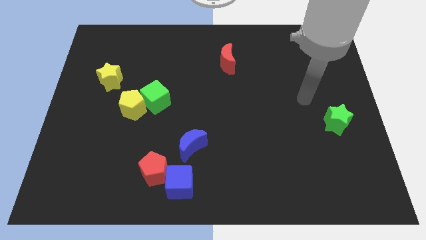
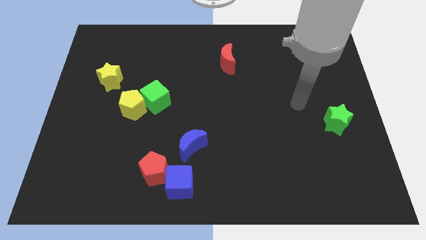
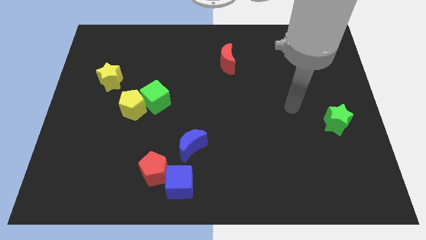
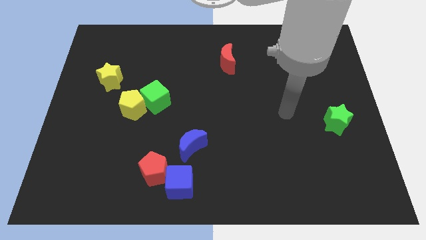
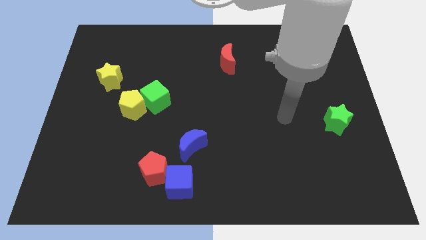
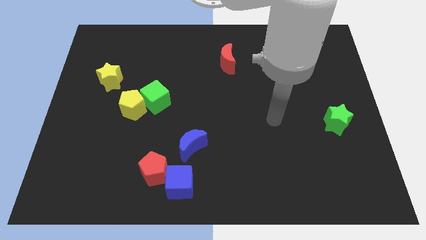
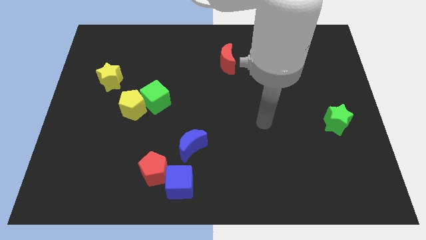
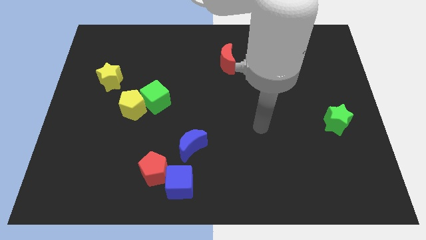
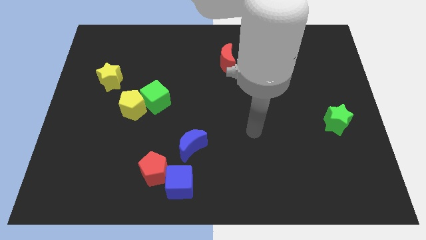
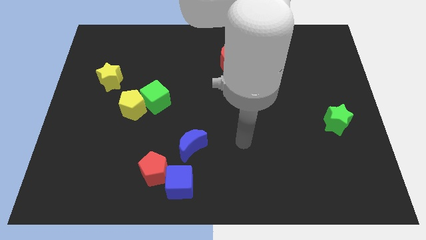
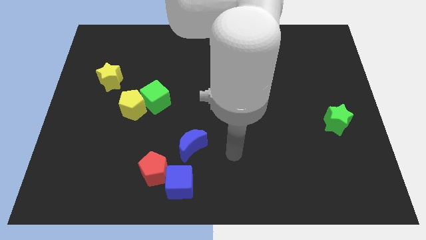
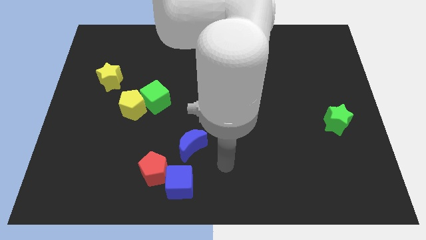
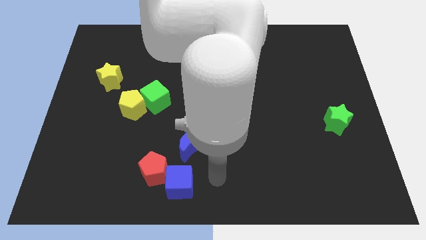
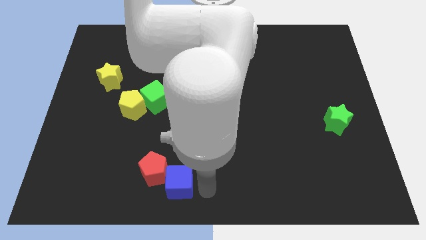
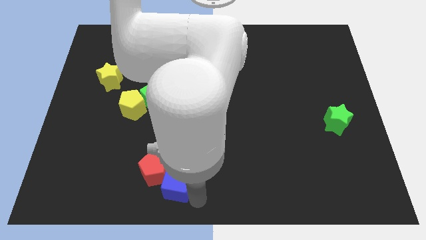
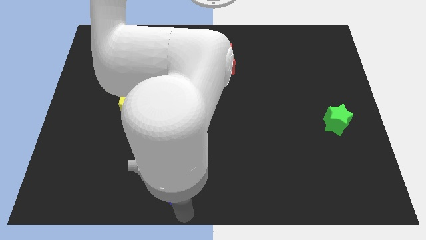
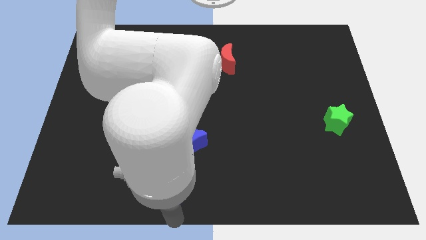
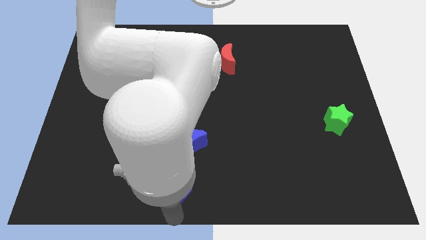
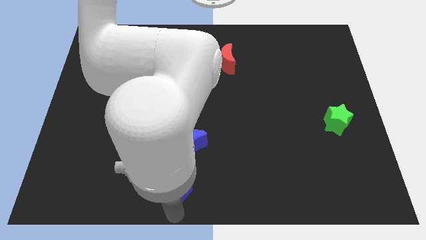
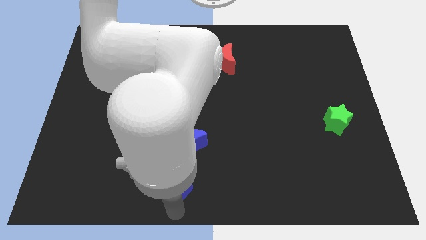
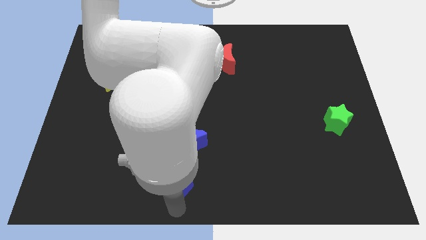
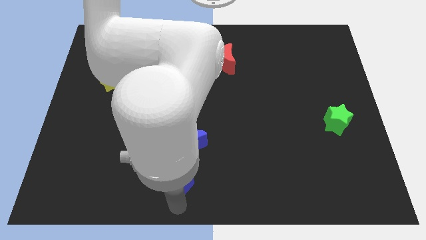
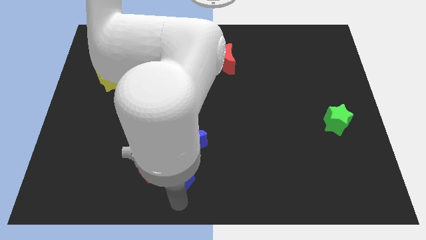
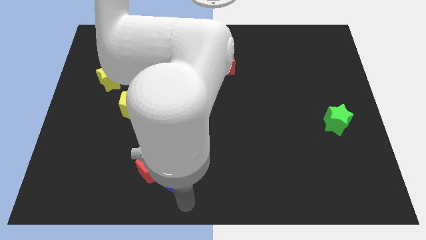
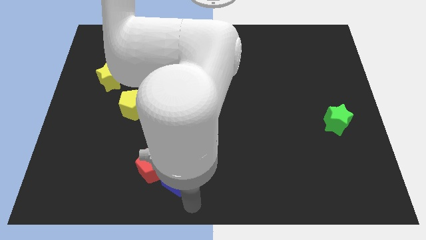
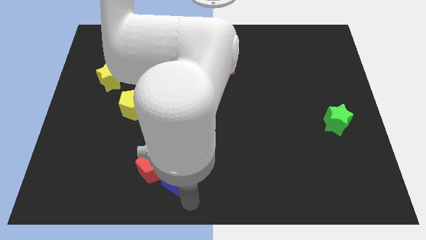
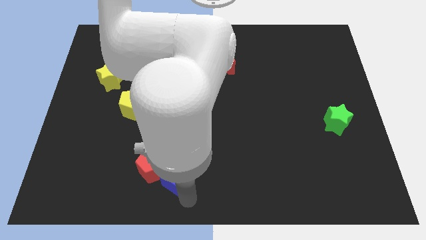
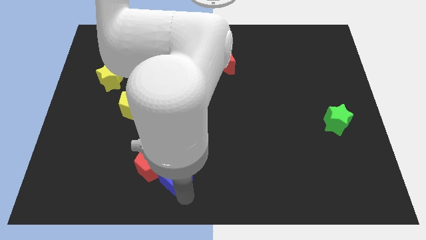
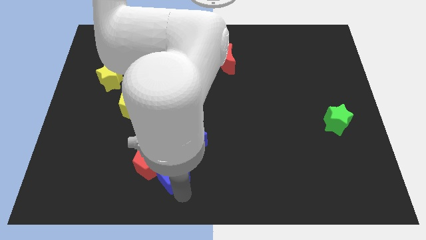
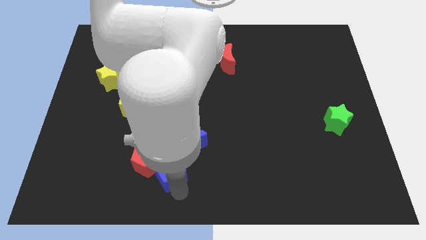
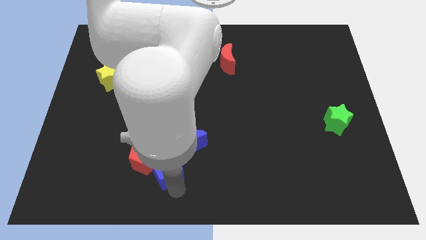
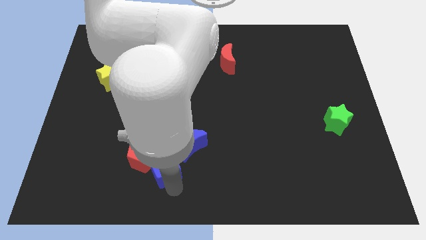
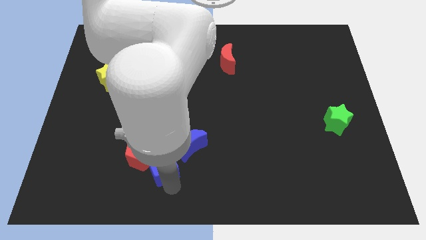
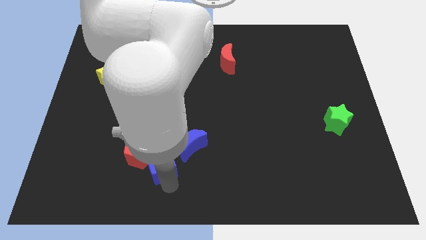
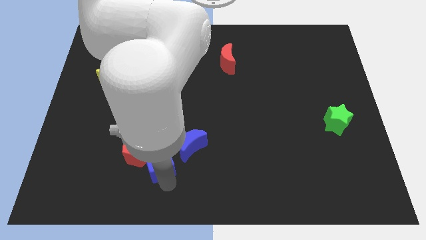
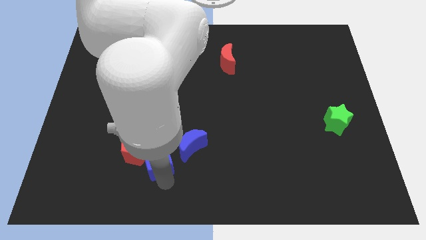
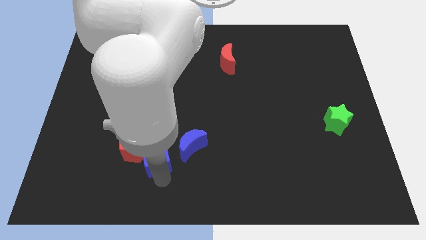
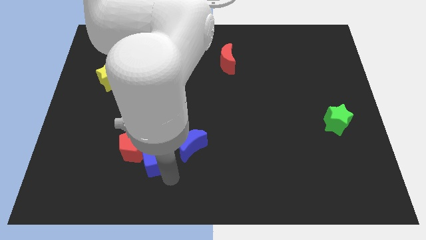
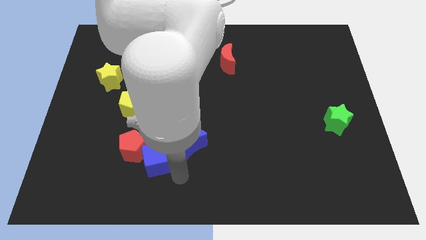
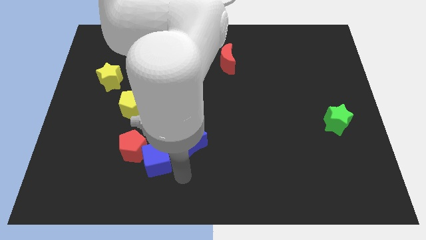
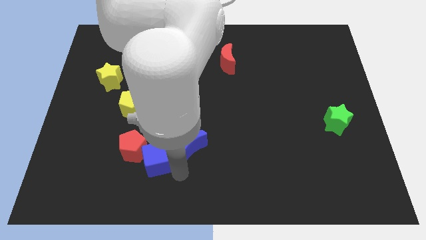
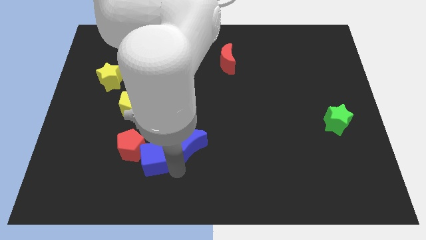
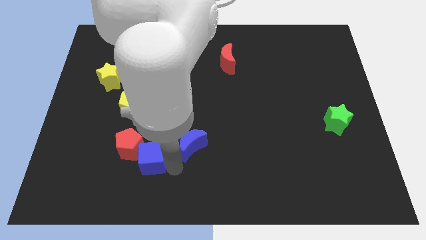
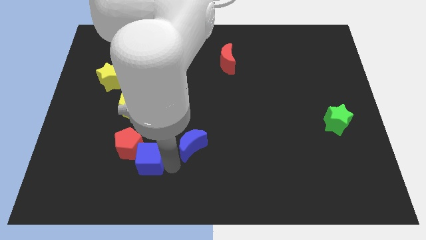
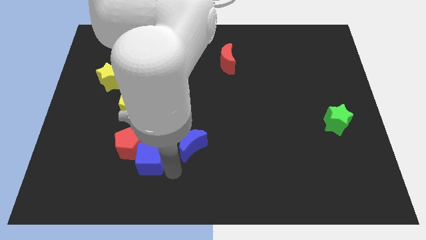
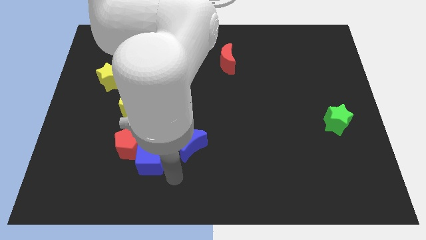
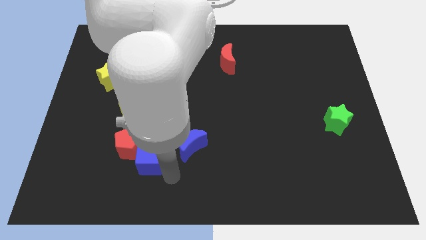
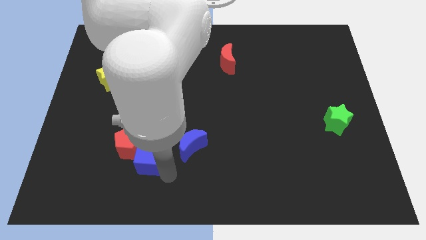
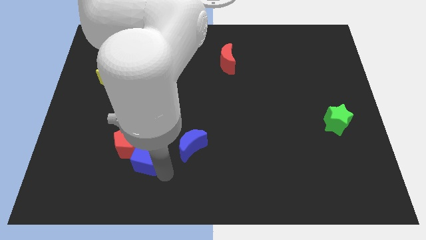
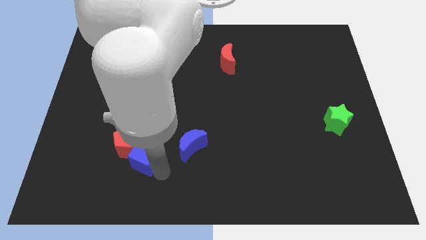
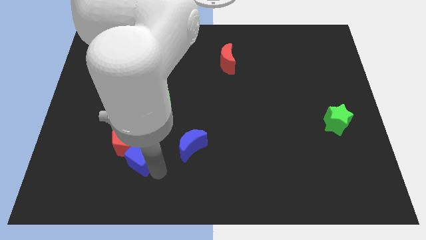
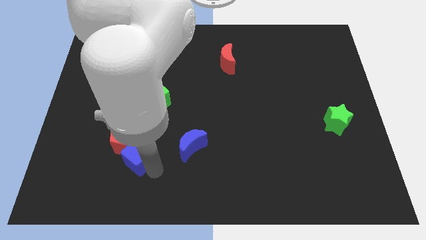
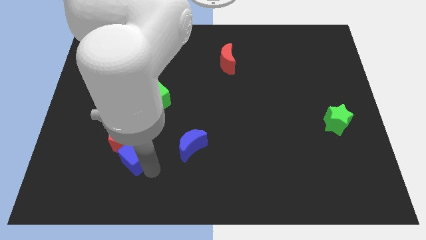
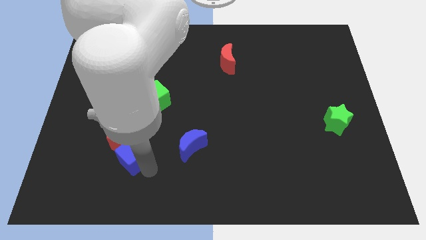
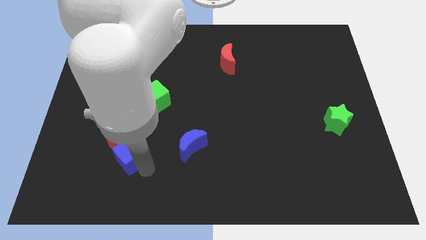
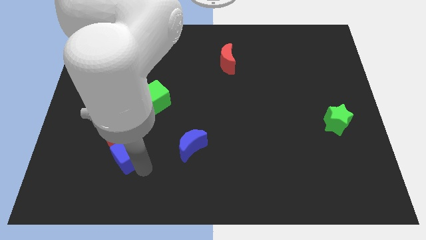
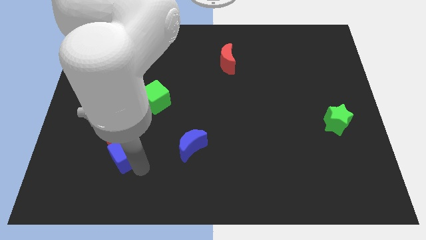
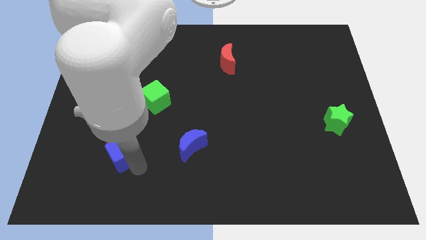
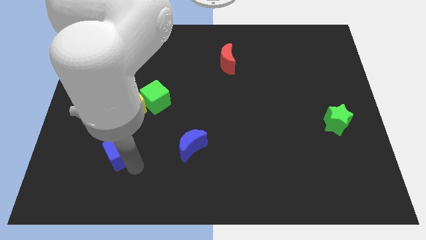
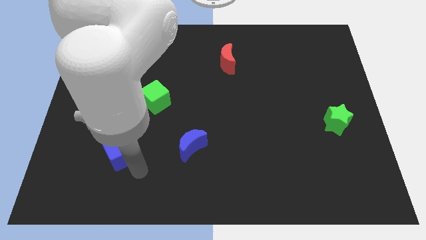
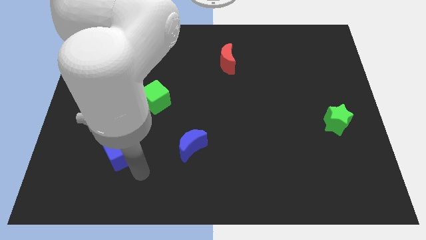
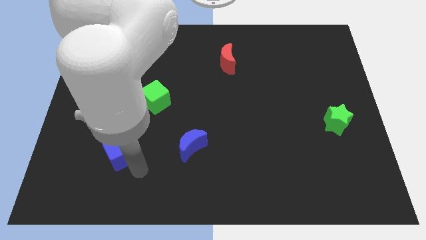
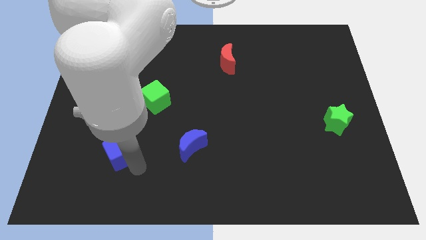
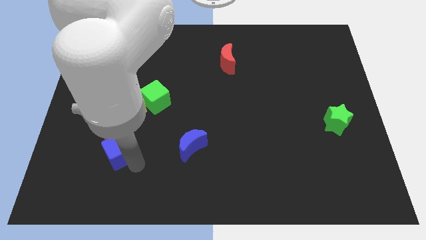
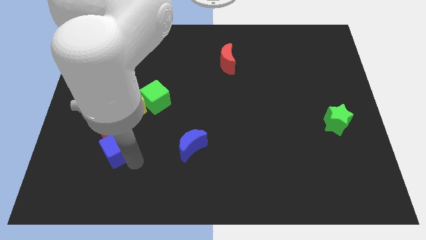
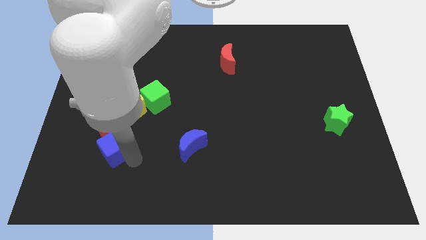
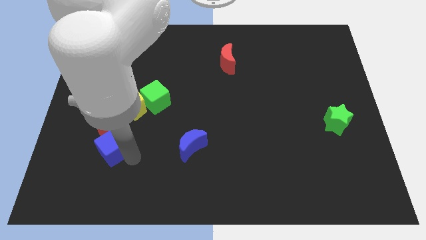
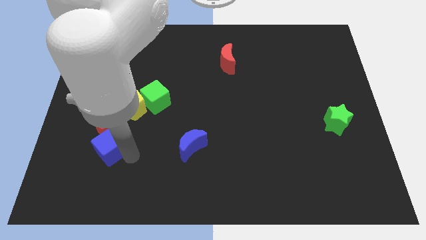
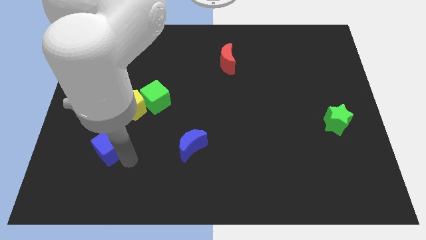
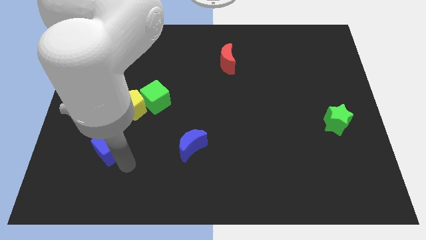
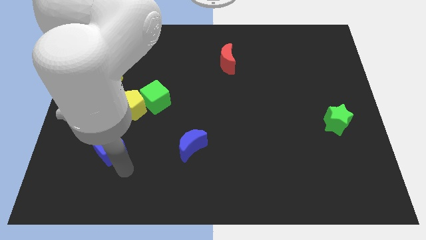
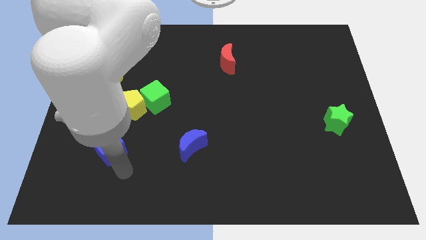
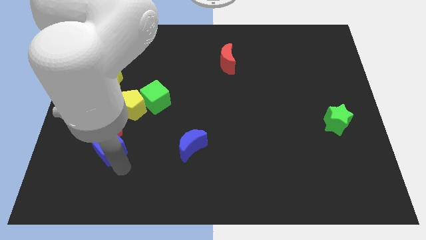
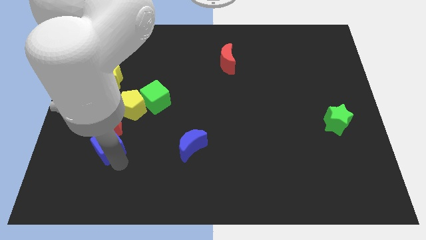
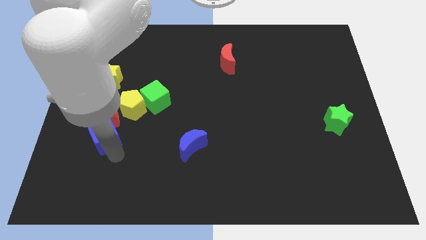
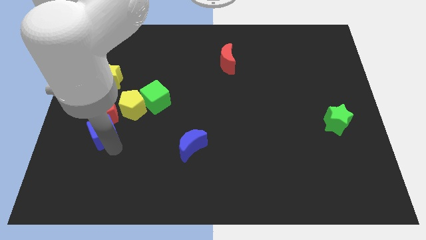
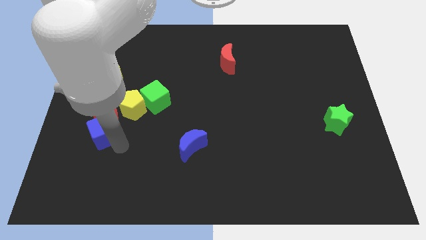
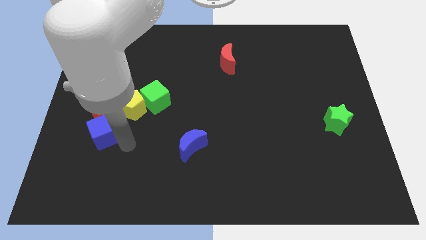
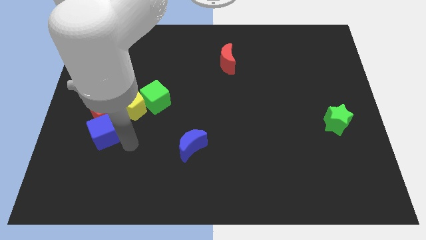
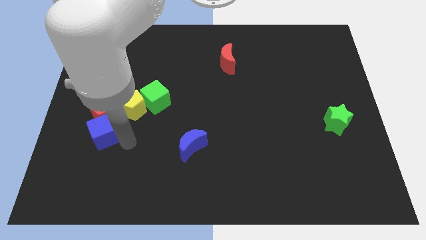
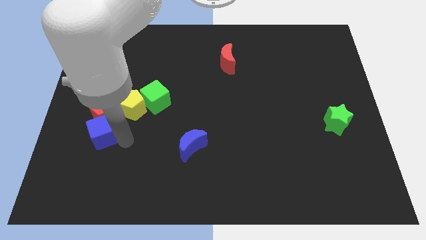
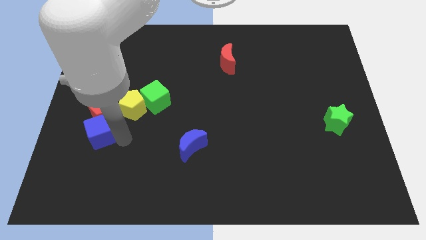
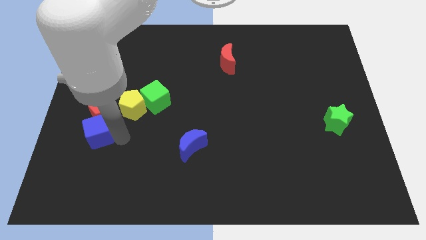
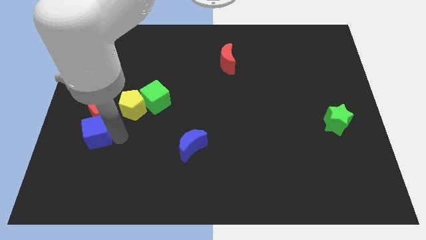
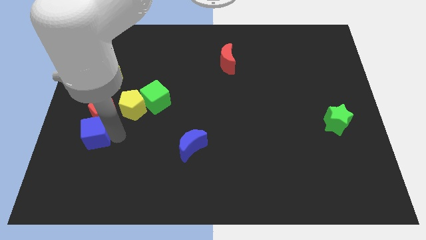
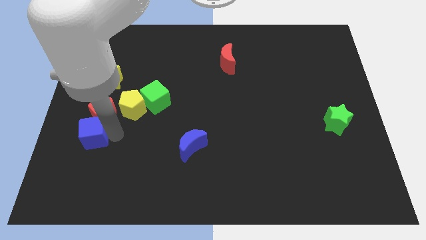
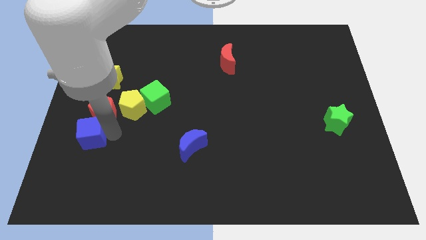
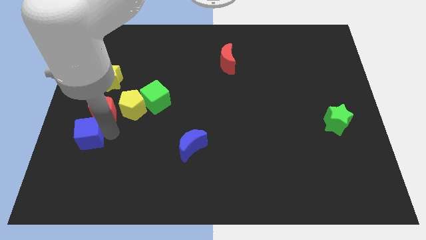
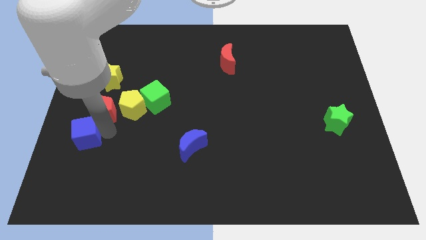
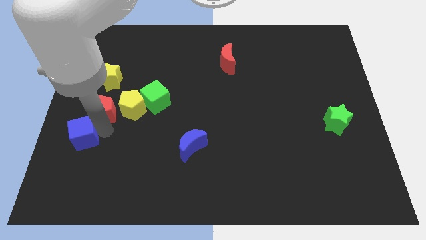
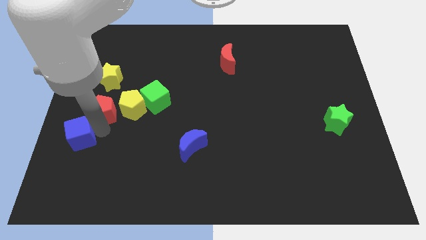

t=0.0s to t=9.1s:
move the blue cube to the left side
